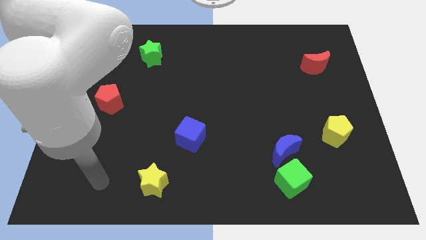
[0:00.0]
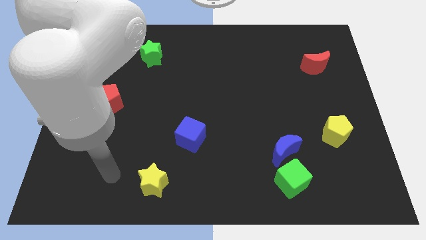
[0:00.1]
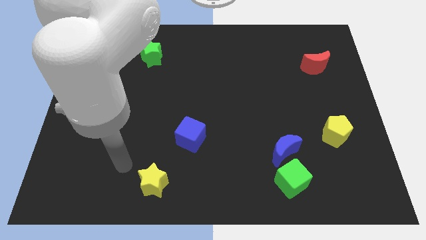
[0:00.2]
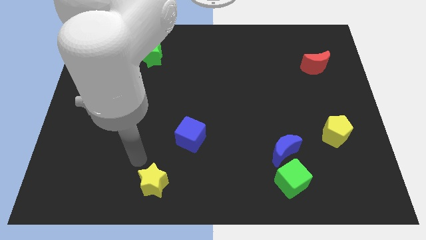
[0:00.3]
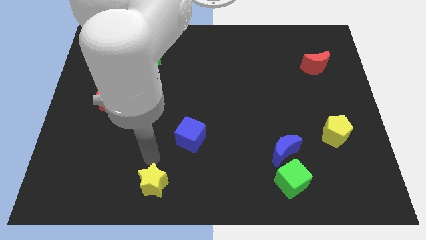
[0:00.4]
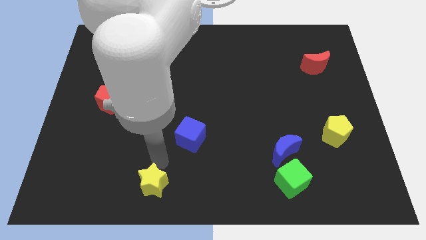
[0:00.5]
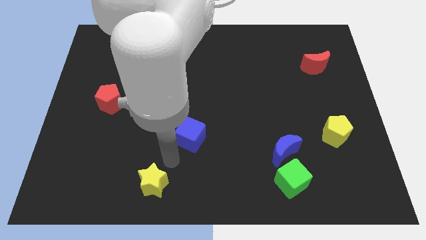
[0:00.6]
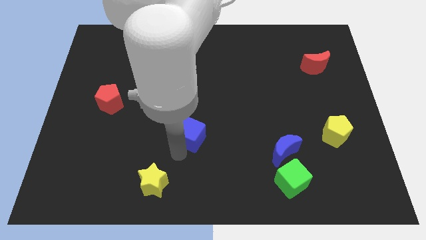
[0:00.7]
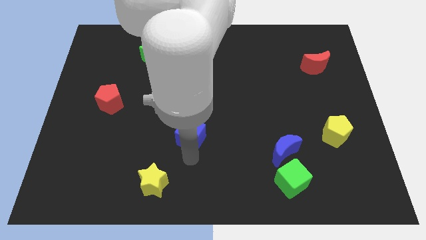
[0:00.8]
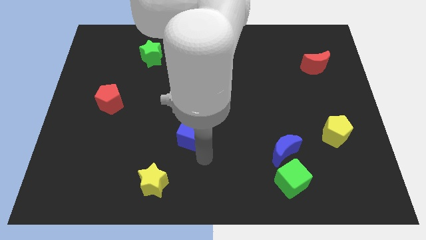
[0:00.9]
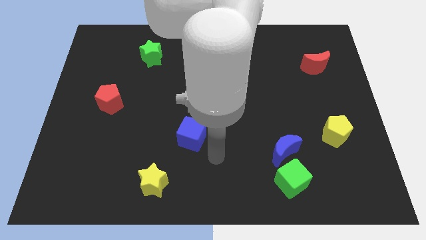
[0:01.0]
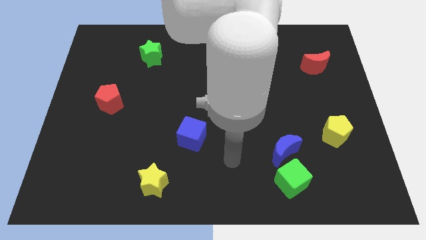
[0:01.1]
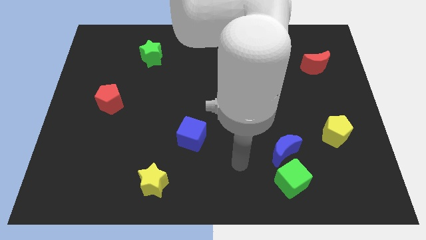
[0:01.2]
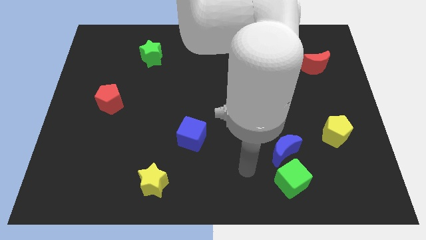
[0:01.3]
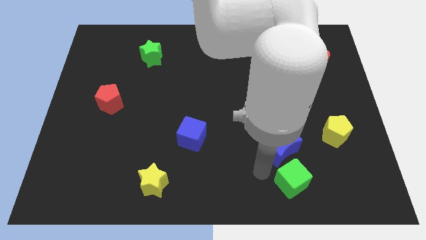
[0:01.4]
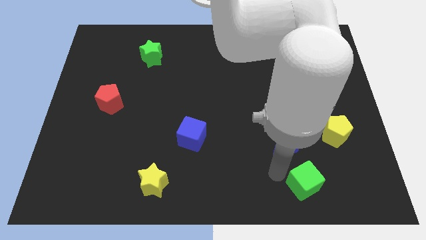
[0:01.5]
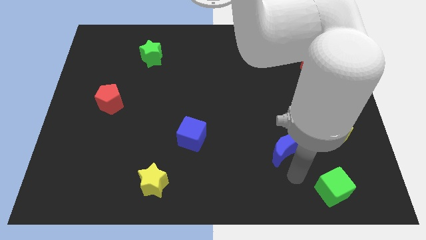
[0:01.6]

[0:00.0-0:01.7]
move the blue moon away from the green cube

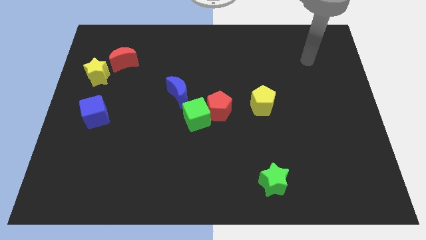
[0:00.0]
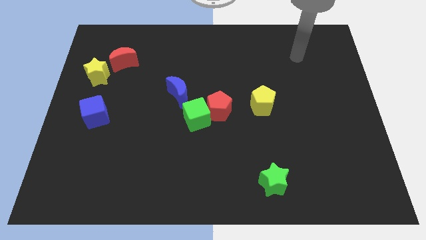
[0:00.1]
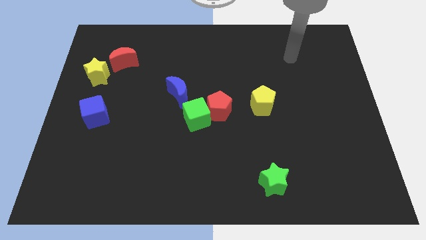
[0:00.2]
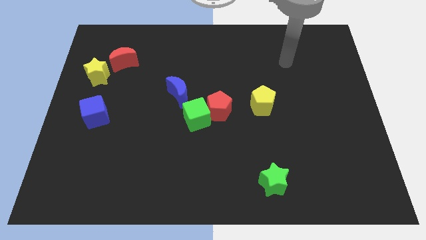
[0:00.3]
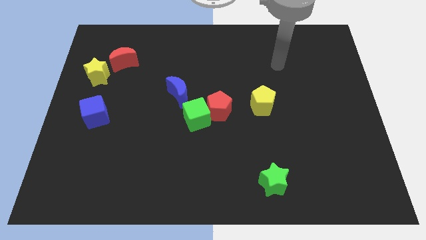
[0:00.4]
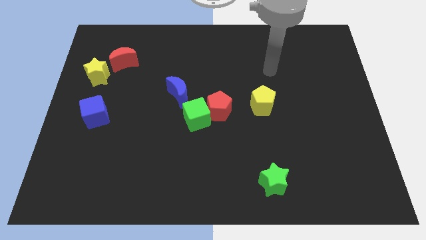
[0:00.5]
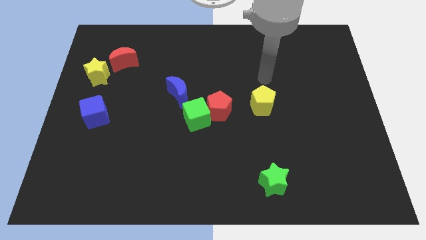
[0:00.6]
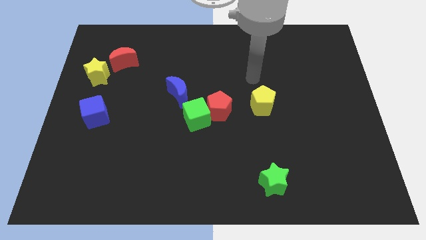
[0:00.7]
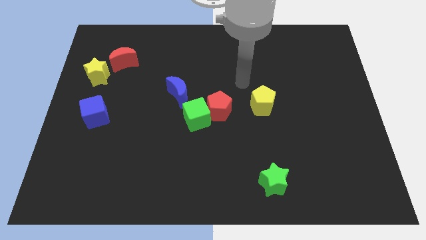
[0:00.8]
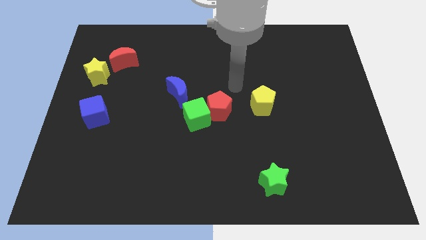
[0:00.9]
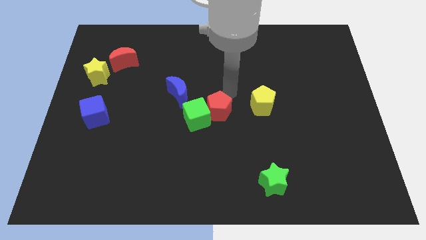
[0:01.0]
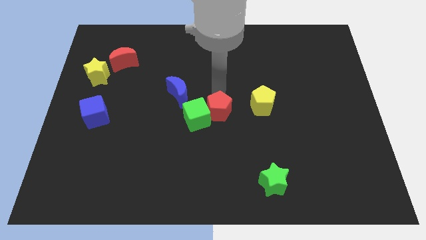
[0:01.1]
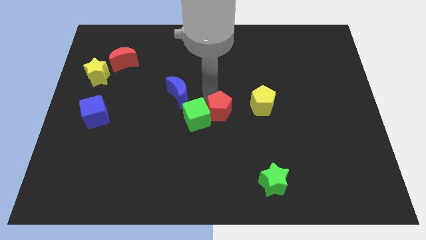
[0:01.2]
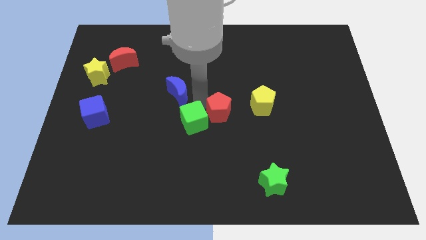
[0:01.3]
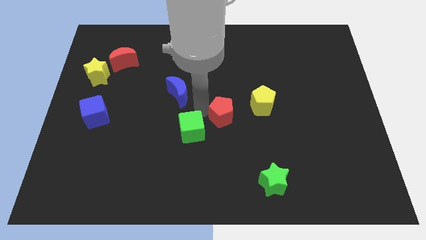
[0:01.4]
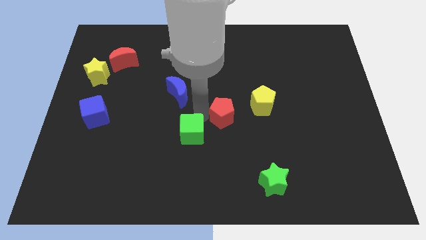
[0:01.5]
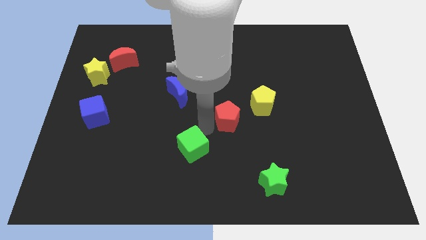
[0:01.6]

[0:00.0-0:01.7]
move the red pentagon away from the green cube

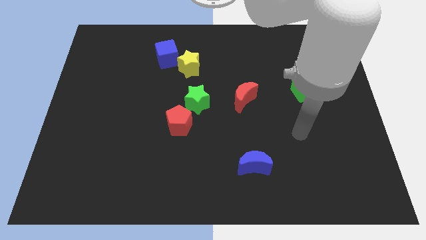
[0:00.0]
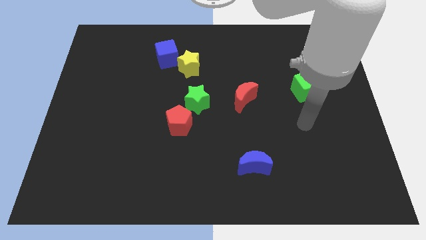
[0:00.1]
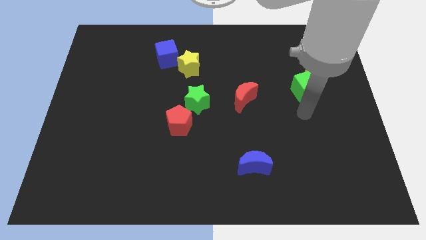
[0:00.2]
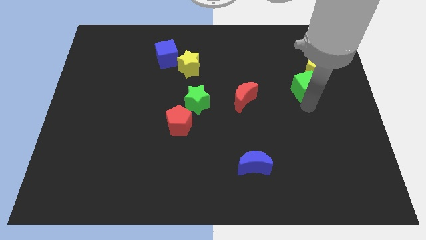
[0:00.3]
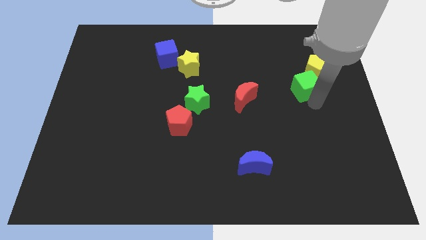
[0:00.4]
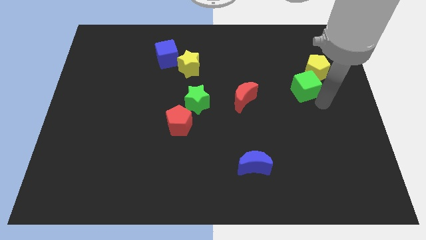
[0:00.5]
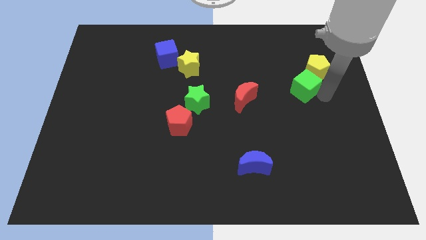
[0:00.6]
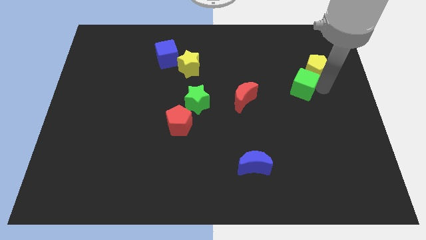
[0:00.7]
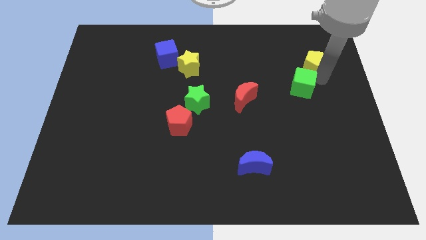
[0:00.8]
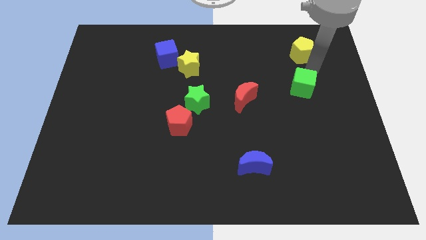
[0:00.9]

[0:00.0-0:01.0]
move the green cube away from the yellow pentagon

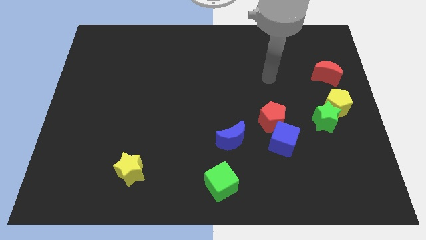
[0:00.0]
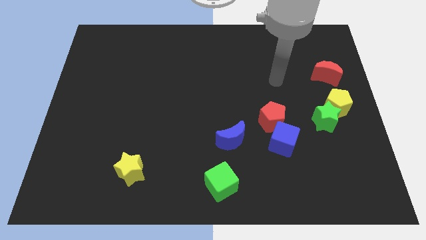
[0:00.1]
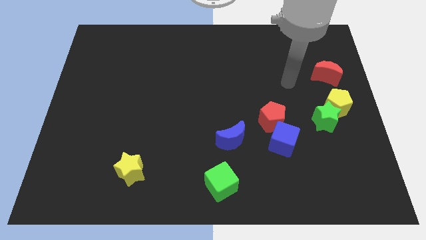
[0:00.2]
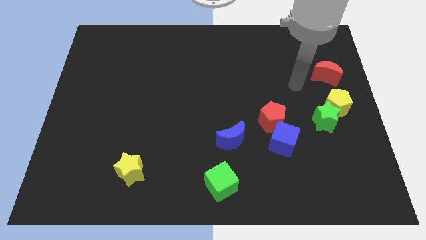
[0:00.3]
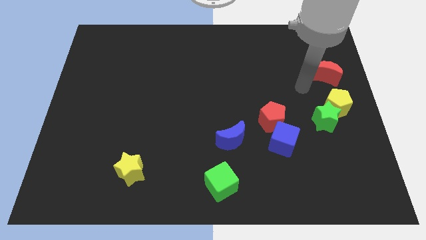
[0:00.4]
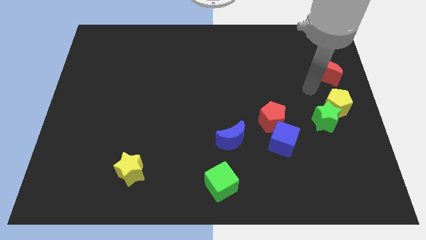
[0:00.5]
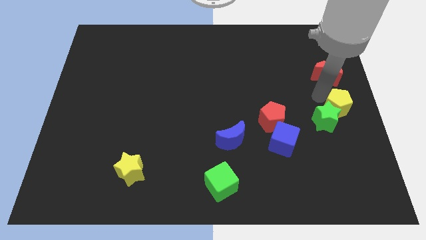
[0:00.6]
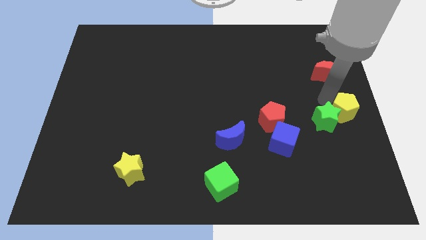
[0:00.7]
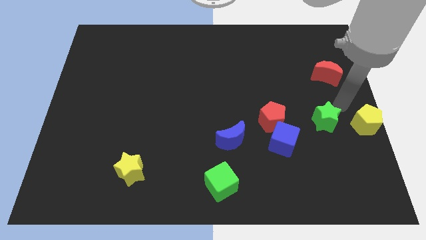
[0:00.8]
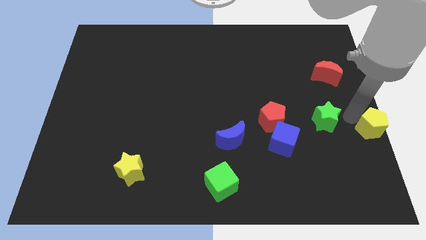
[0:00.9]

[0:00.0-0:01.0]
move the green star away from the yellow pentagon

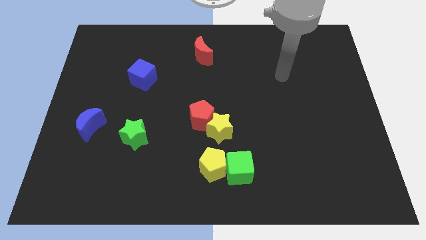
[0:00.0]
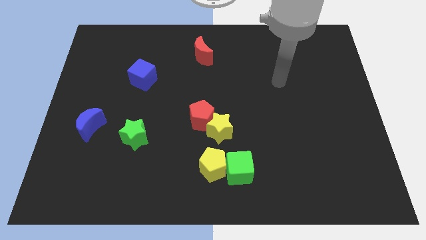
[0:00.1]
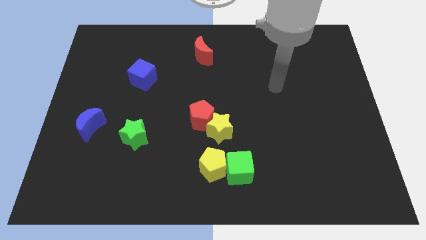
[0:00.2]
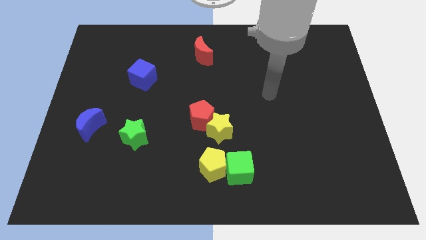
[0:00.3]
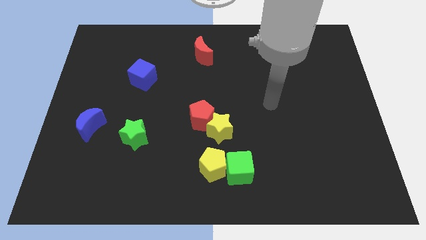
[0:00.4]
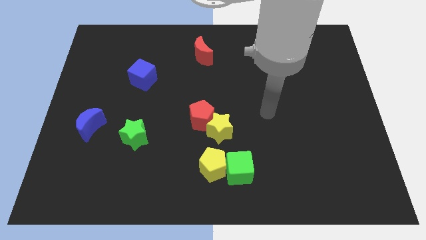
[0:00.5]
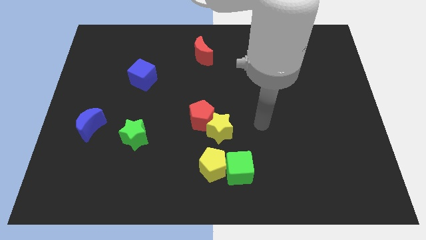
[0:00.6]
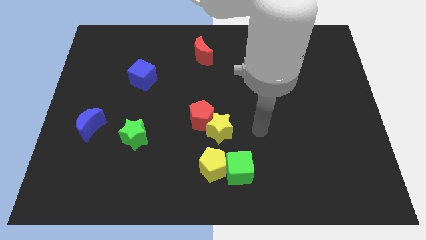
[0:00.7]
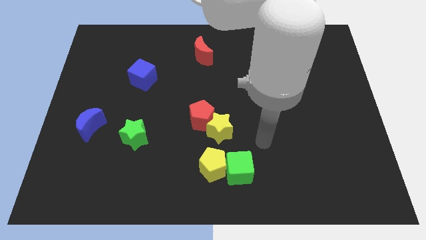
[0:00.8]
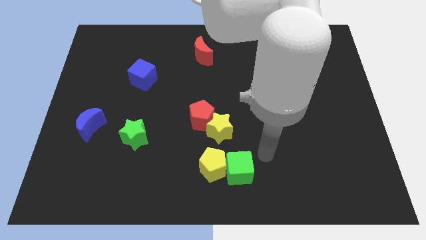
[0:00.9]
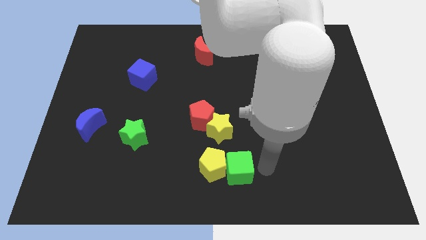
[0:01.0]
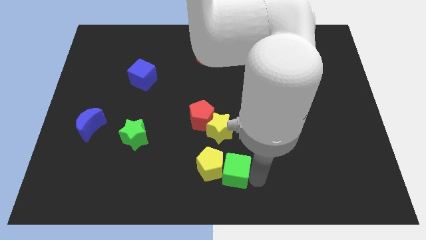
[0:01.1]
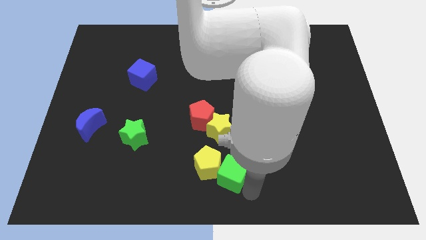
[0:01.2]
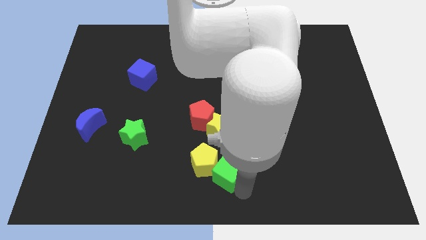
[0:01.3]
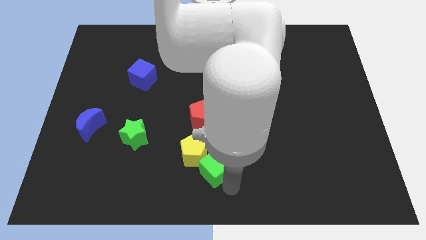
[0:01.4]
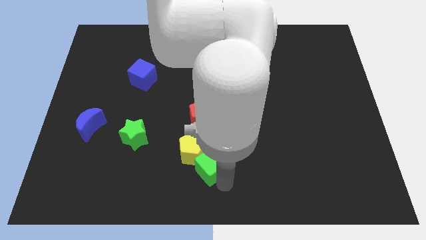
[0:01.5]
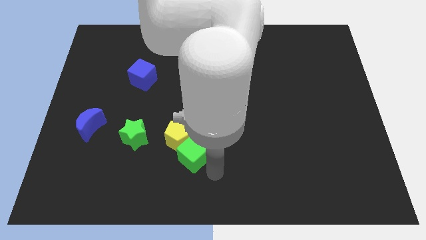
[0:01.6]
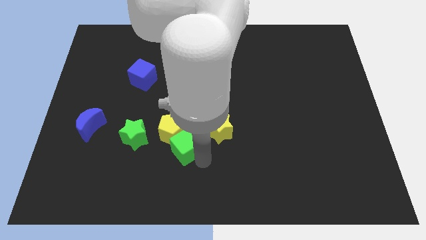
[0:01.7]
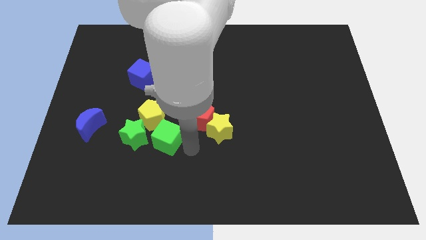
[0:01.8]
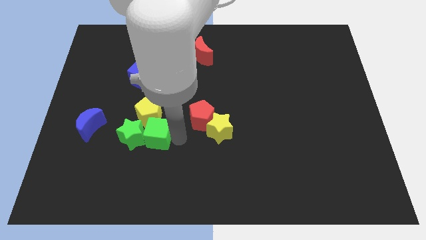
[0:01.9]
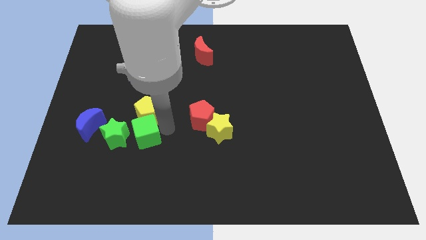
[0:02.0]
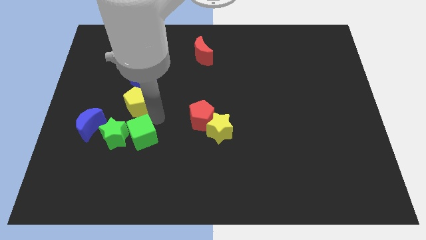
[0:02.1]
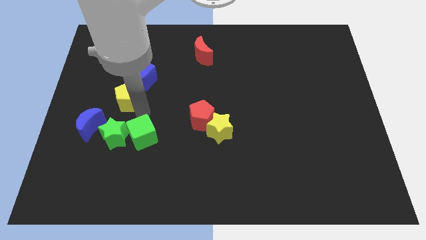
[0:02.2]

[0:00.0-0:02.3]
pull the green cube apart from the yellow pentagon

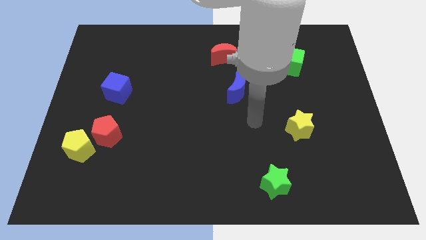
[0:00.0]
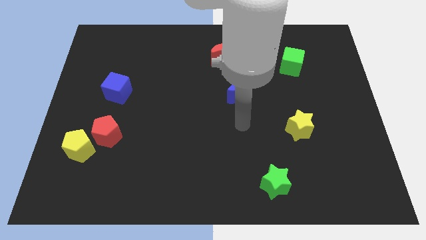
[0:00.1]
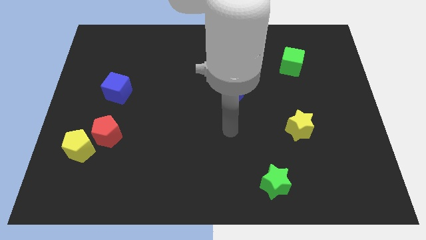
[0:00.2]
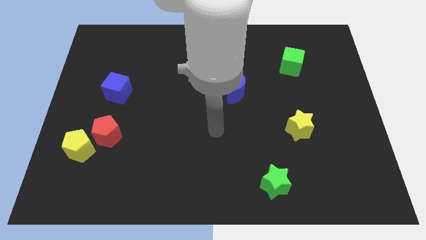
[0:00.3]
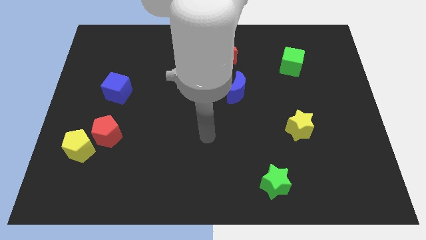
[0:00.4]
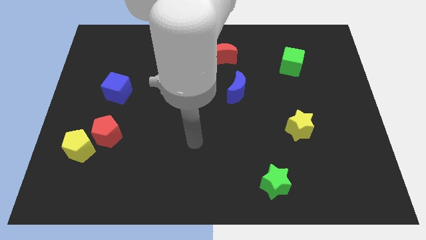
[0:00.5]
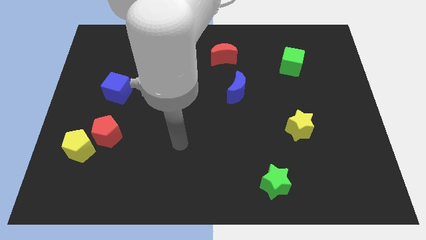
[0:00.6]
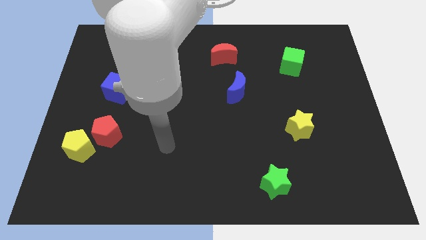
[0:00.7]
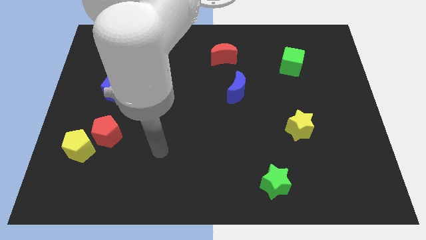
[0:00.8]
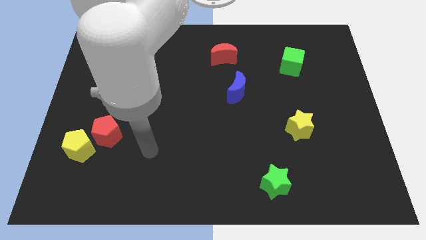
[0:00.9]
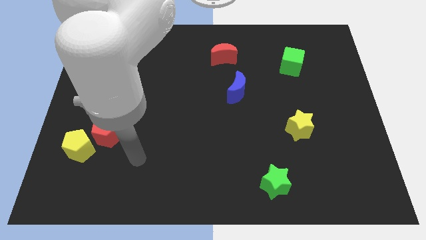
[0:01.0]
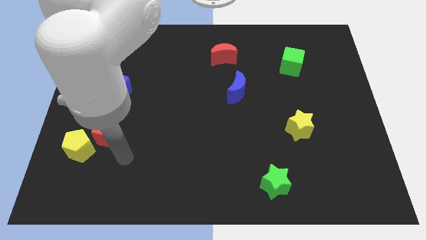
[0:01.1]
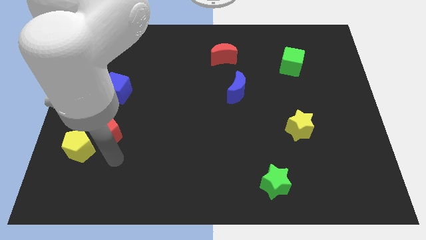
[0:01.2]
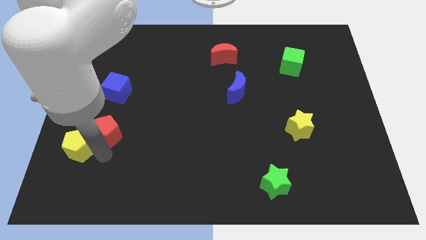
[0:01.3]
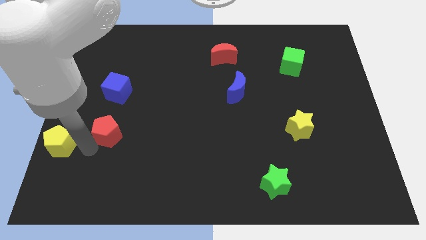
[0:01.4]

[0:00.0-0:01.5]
separate the red pentagon from the yellow pentagon
